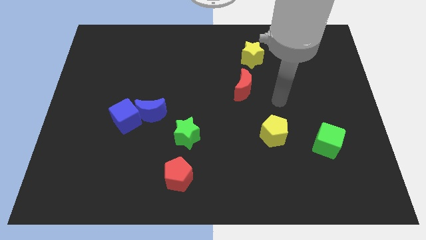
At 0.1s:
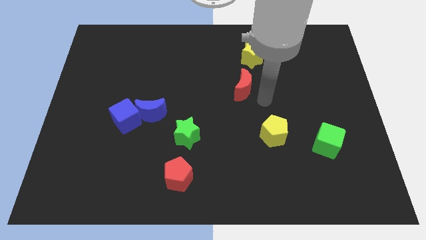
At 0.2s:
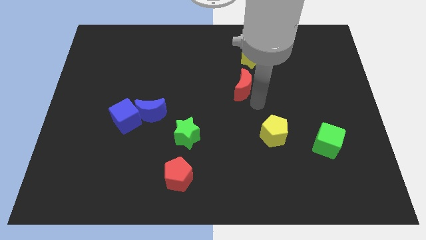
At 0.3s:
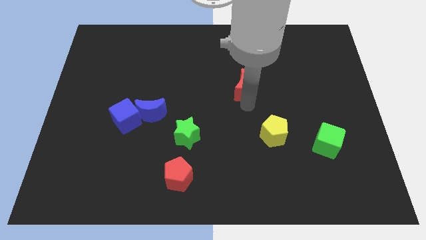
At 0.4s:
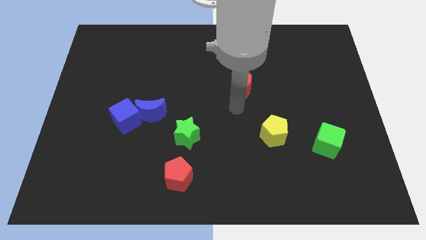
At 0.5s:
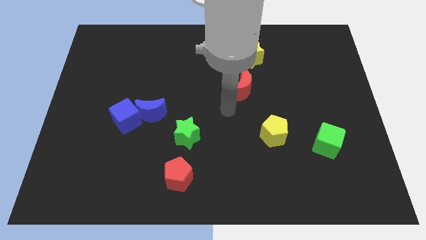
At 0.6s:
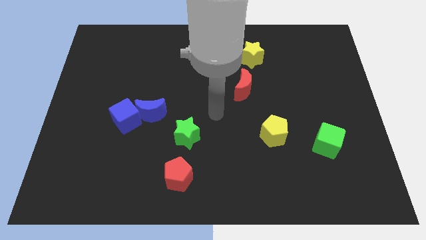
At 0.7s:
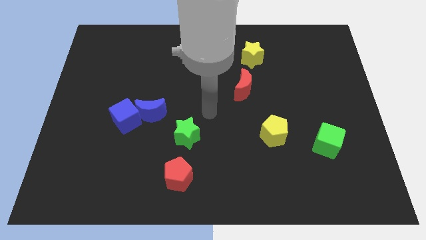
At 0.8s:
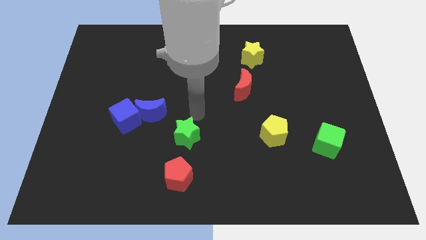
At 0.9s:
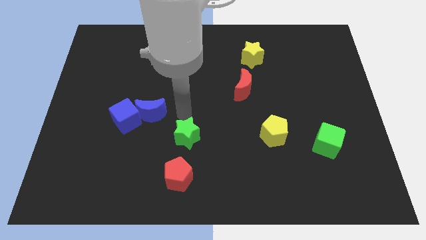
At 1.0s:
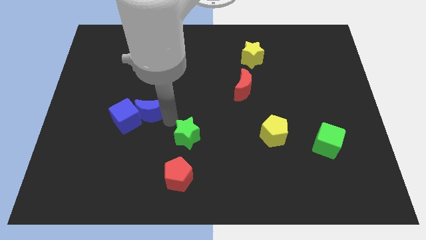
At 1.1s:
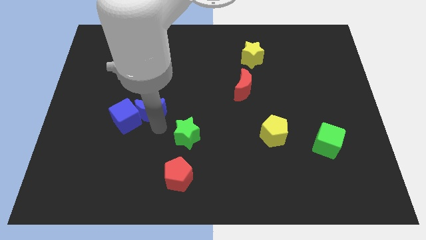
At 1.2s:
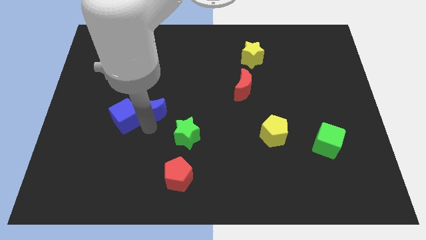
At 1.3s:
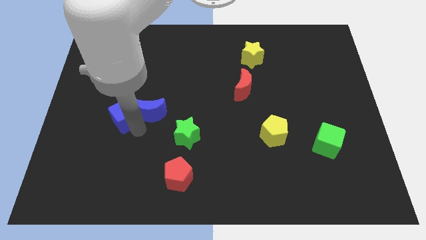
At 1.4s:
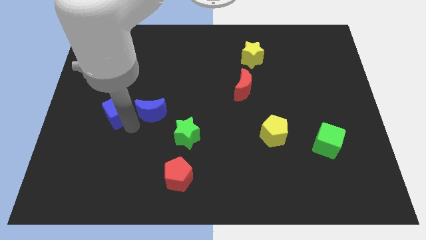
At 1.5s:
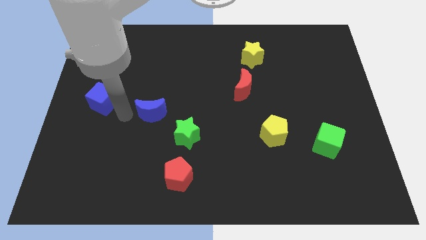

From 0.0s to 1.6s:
move the blue moon away from the blue cube

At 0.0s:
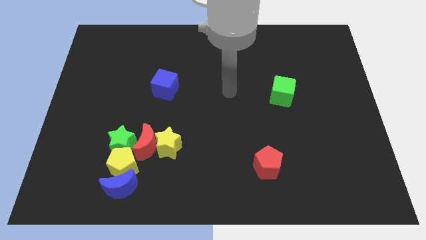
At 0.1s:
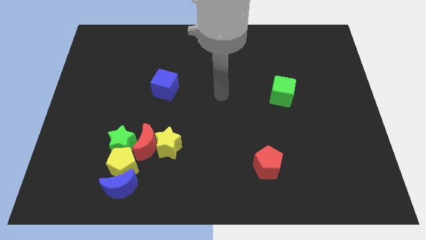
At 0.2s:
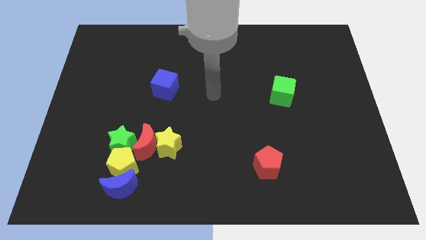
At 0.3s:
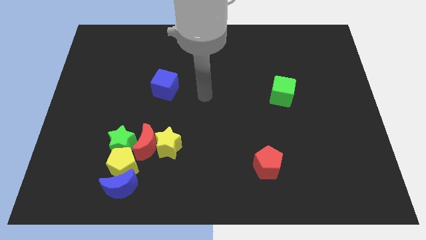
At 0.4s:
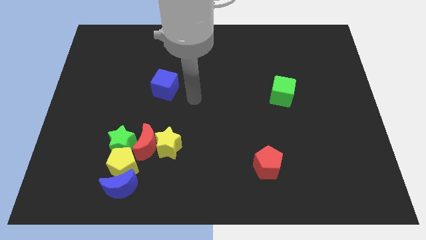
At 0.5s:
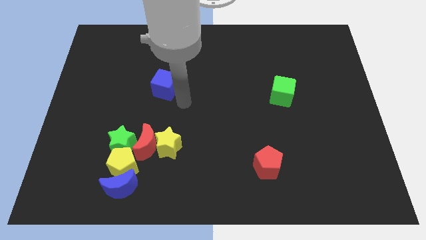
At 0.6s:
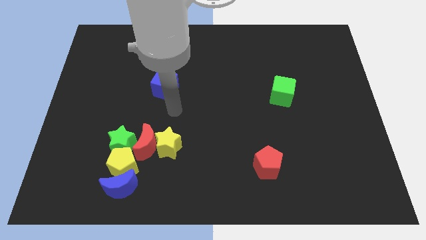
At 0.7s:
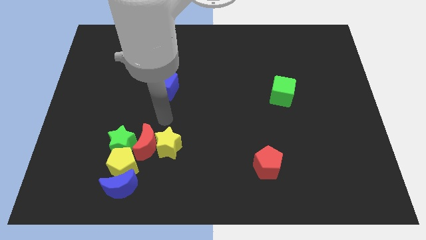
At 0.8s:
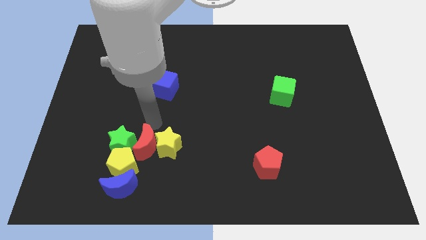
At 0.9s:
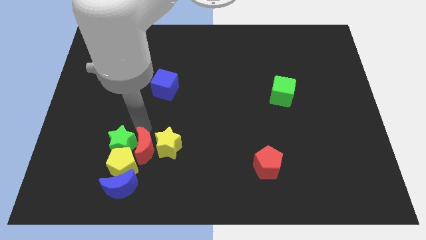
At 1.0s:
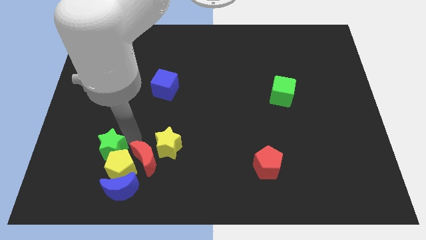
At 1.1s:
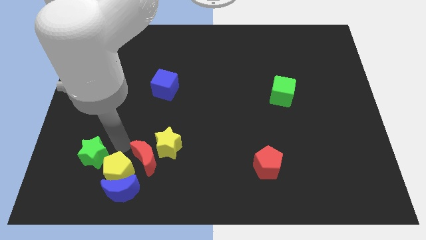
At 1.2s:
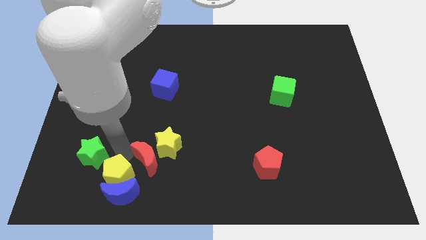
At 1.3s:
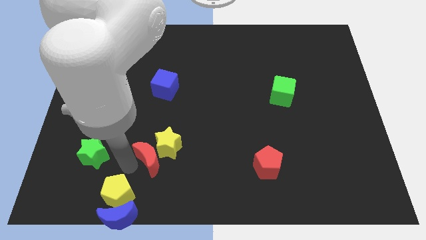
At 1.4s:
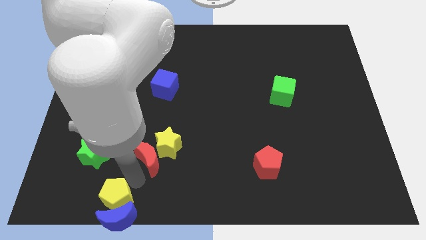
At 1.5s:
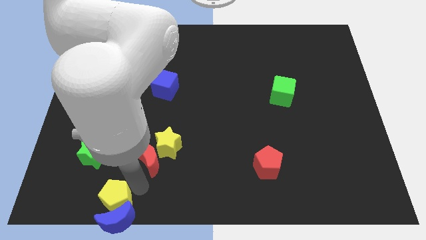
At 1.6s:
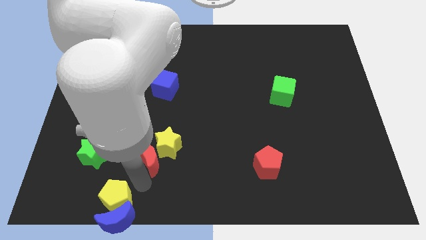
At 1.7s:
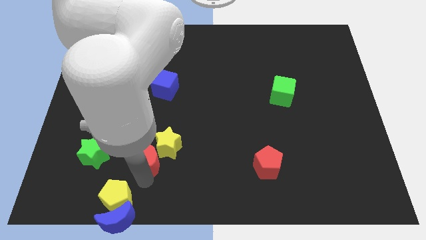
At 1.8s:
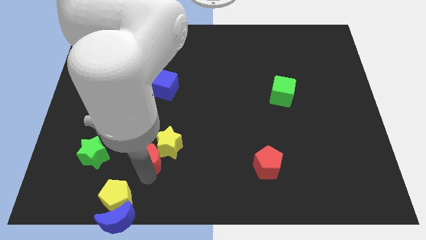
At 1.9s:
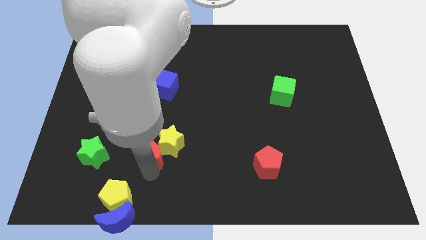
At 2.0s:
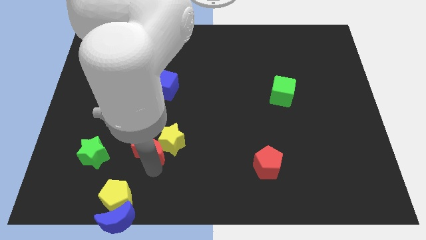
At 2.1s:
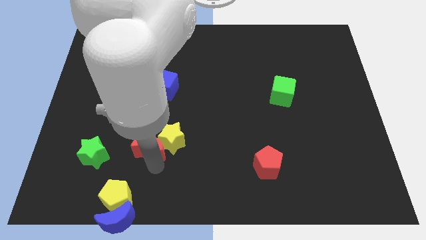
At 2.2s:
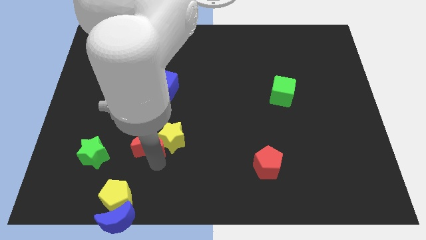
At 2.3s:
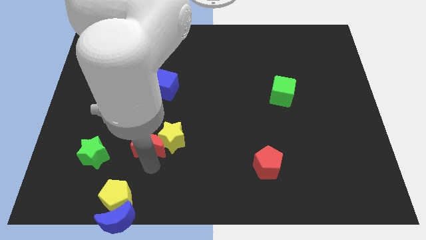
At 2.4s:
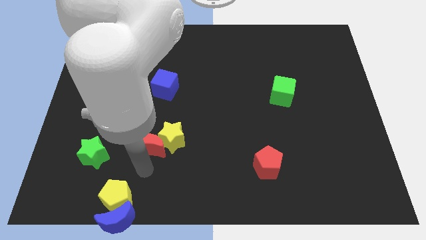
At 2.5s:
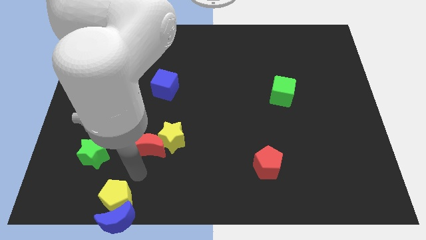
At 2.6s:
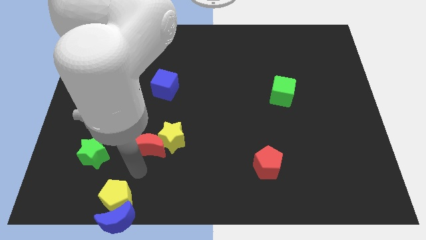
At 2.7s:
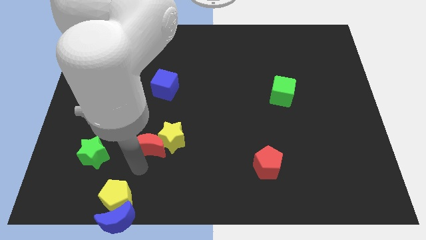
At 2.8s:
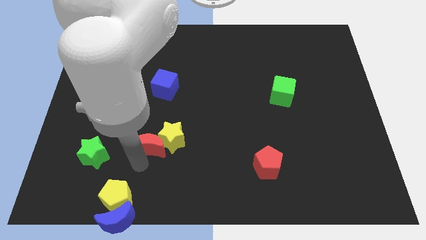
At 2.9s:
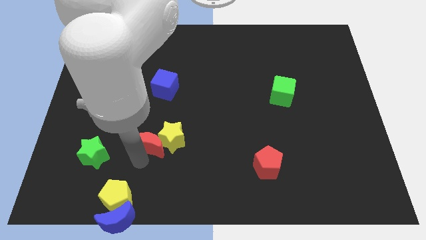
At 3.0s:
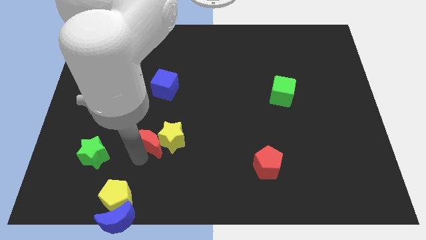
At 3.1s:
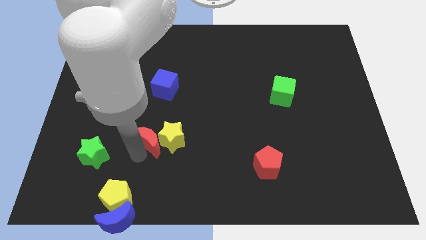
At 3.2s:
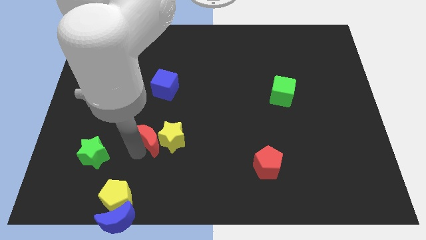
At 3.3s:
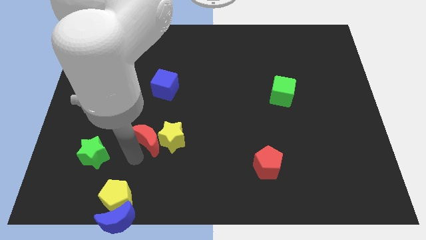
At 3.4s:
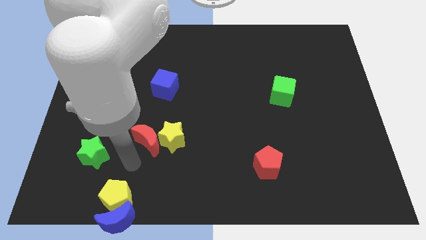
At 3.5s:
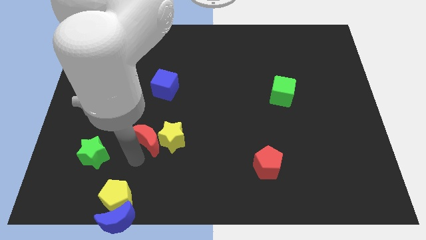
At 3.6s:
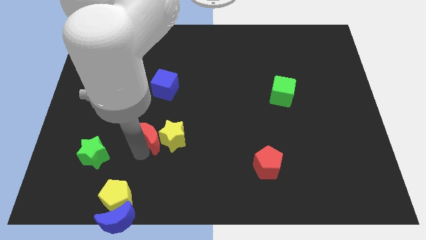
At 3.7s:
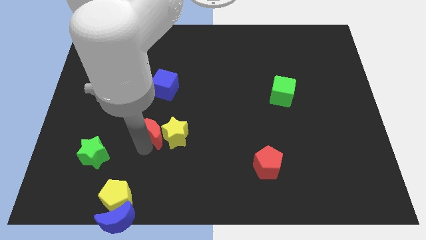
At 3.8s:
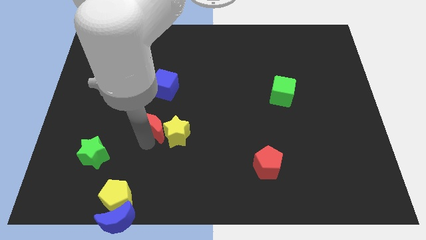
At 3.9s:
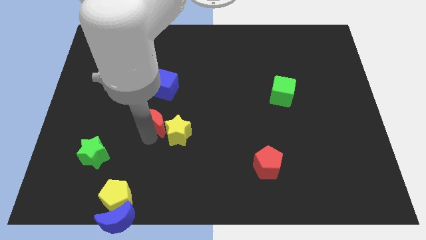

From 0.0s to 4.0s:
move the red moon away from the group of blocks

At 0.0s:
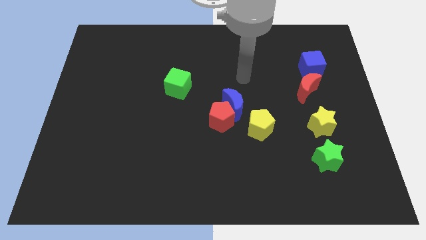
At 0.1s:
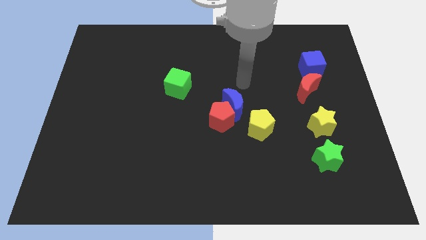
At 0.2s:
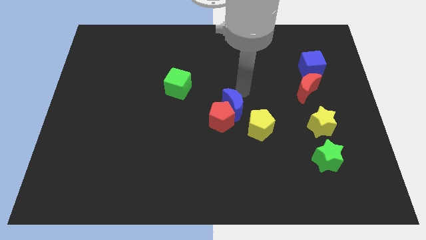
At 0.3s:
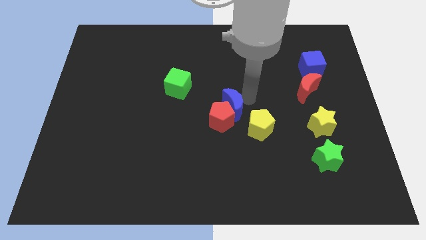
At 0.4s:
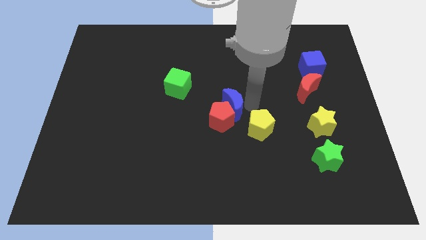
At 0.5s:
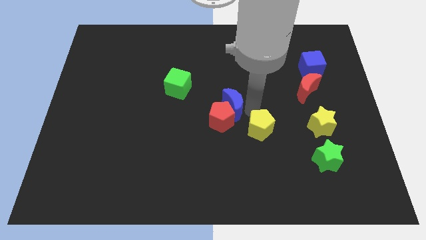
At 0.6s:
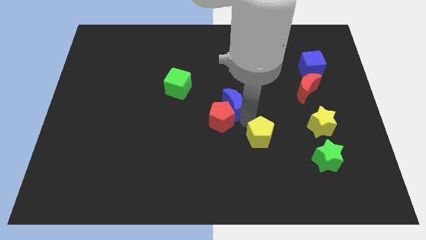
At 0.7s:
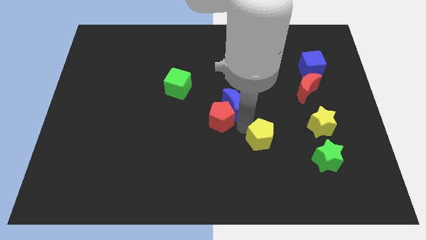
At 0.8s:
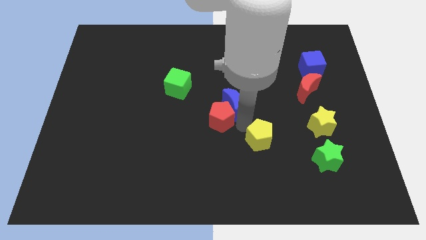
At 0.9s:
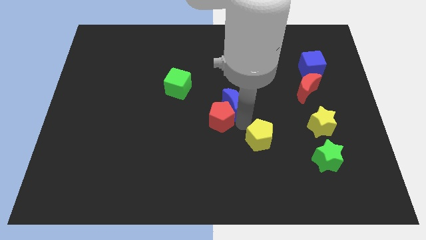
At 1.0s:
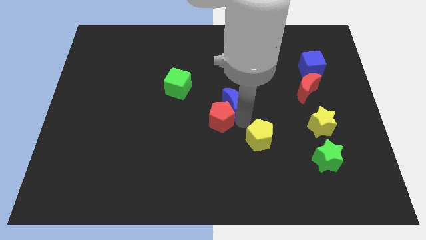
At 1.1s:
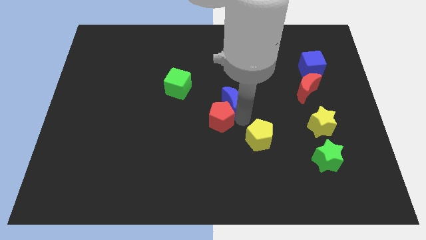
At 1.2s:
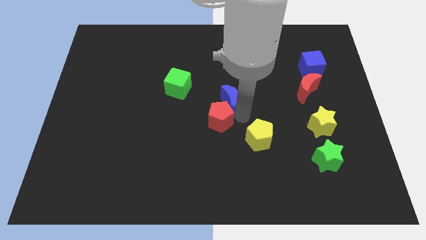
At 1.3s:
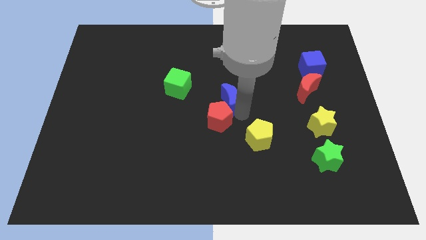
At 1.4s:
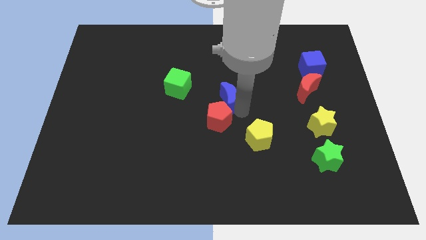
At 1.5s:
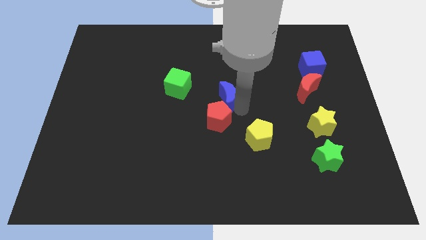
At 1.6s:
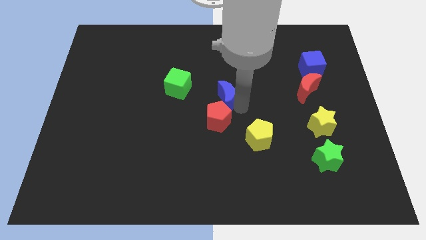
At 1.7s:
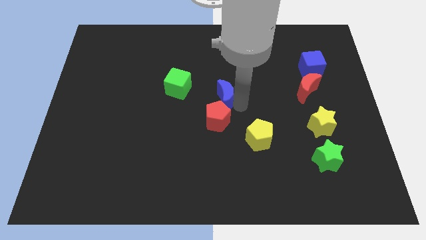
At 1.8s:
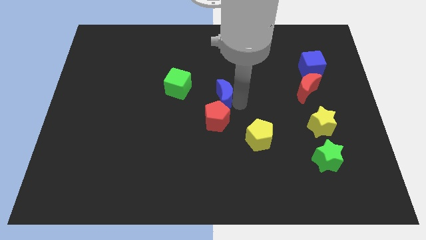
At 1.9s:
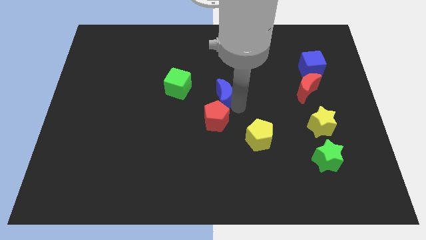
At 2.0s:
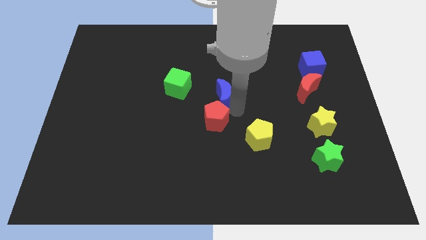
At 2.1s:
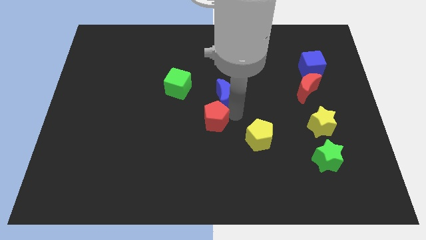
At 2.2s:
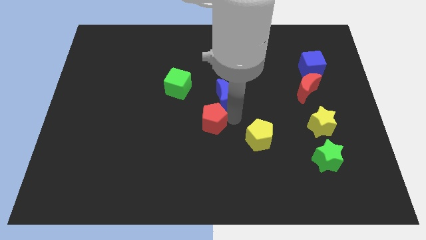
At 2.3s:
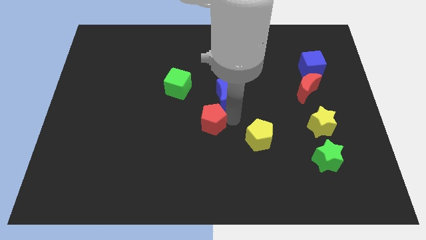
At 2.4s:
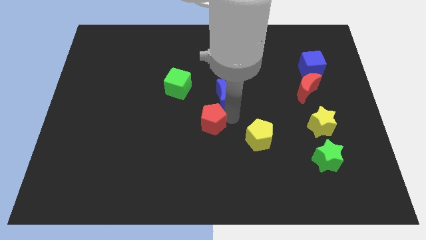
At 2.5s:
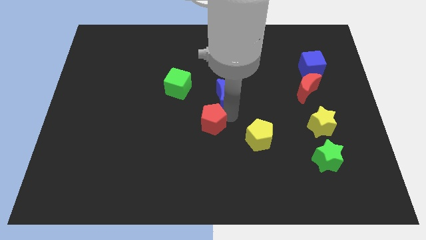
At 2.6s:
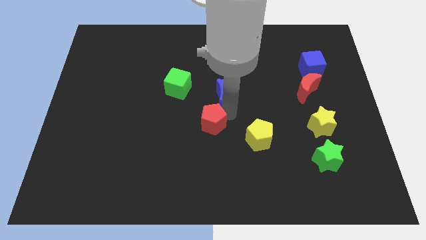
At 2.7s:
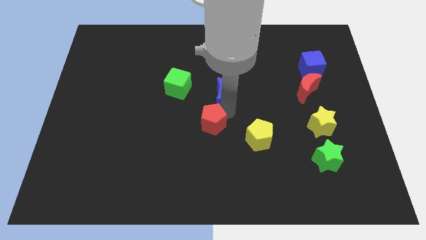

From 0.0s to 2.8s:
move the blue moon away from the red pentagon and yellow pentagon

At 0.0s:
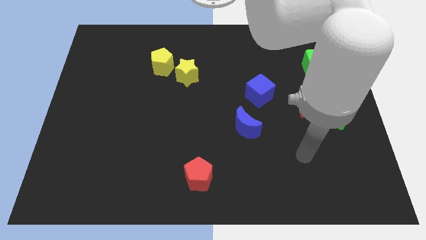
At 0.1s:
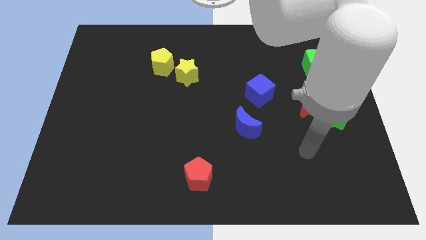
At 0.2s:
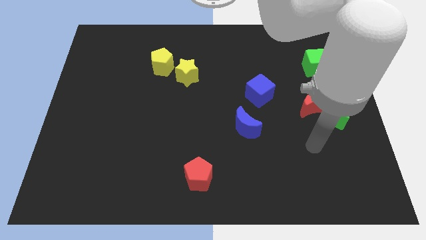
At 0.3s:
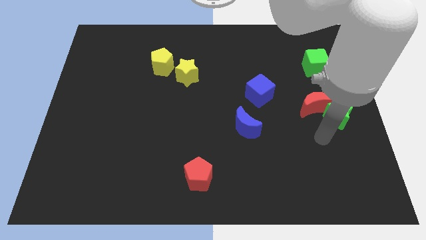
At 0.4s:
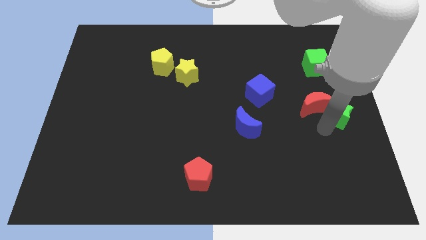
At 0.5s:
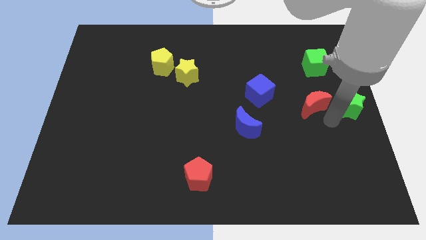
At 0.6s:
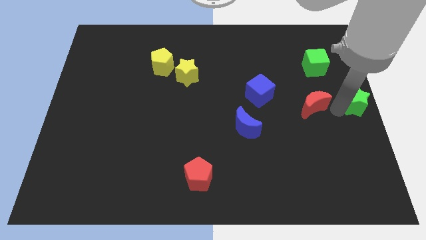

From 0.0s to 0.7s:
move the red moon away from the green star

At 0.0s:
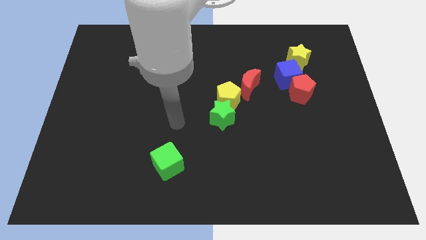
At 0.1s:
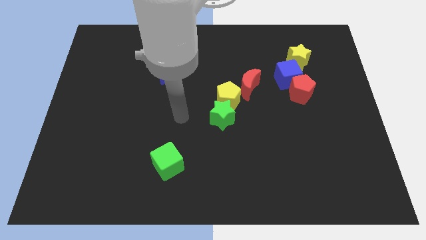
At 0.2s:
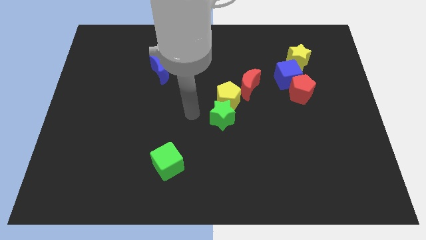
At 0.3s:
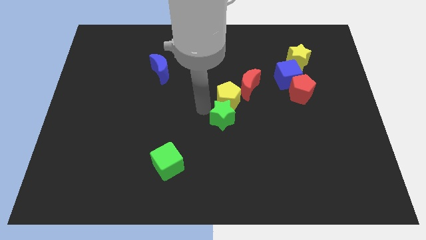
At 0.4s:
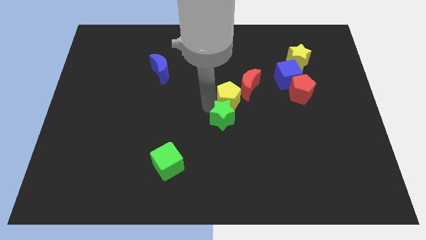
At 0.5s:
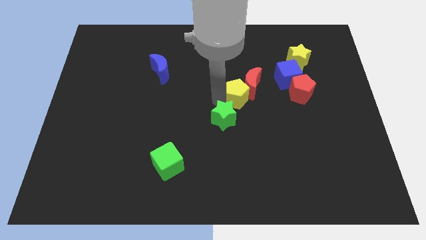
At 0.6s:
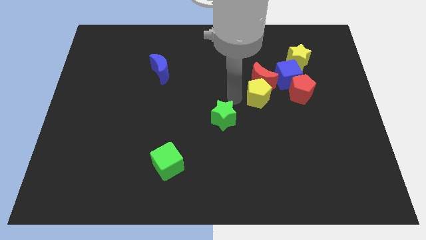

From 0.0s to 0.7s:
pull the green star apart from the yellow pentagon
